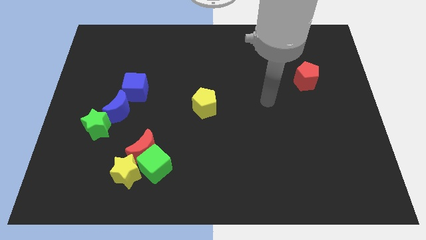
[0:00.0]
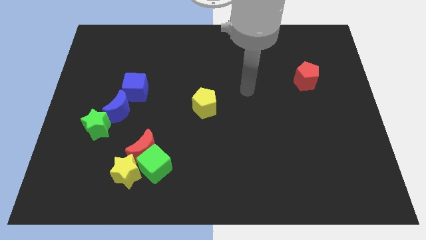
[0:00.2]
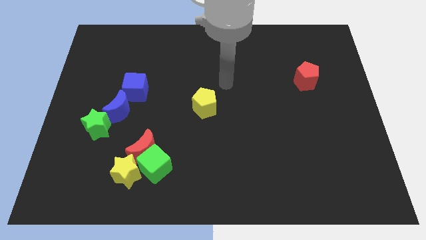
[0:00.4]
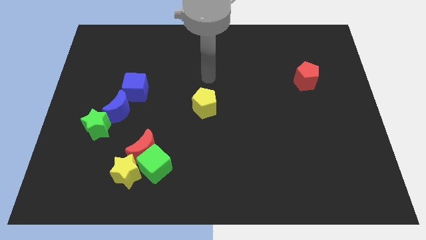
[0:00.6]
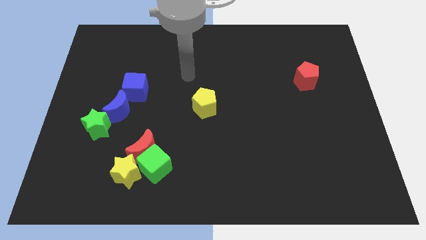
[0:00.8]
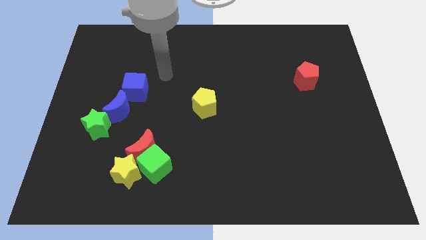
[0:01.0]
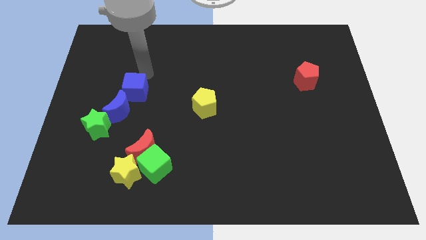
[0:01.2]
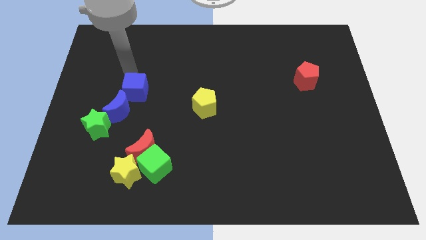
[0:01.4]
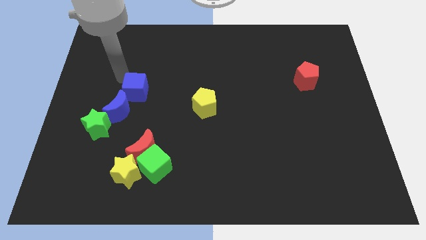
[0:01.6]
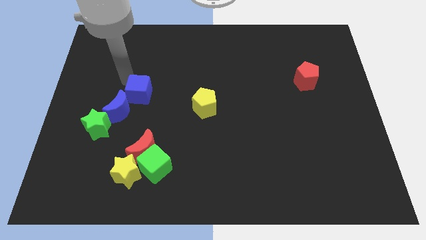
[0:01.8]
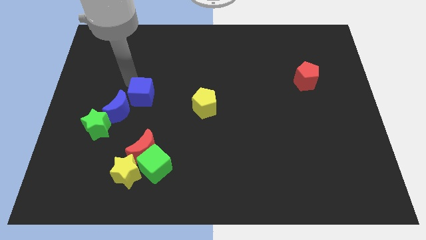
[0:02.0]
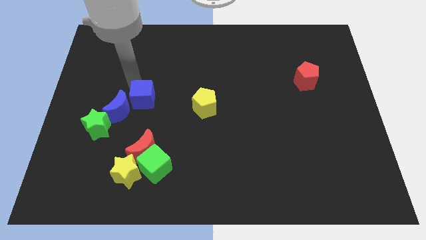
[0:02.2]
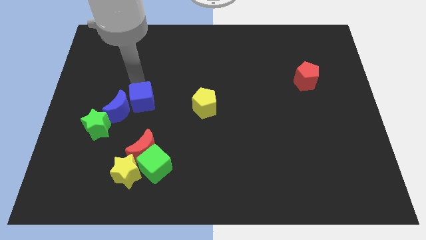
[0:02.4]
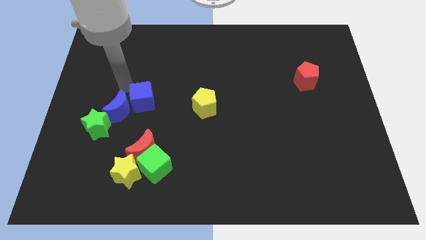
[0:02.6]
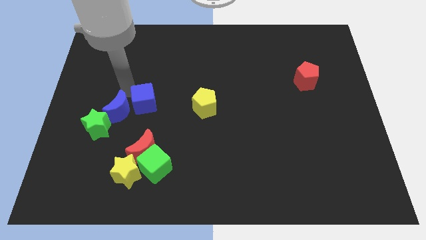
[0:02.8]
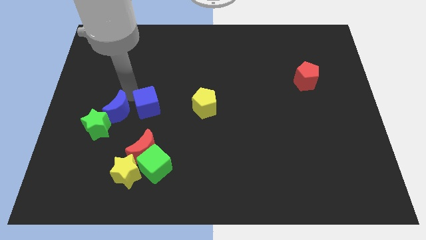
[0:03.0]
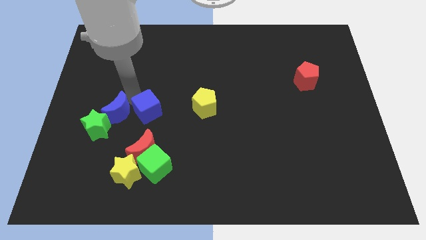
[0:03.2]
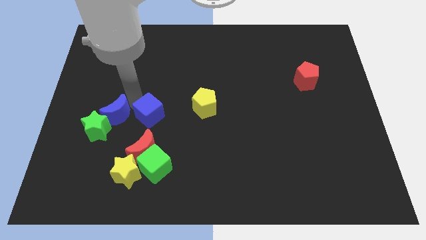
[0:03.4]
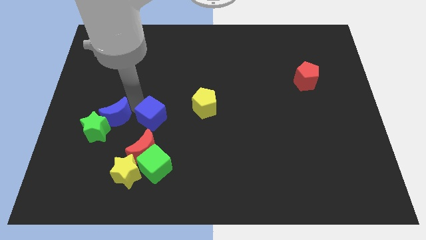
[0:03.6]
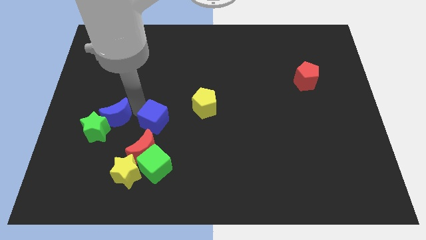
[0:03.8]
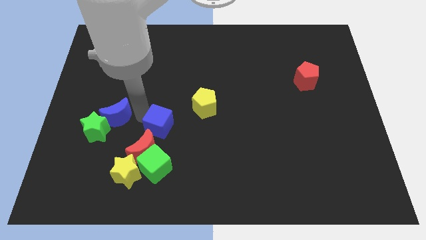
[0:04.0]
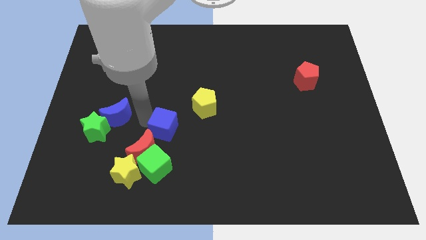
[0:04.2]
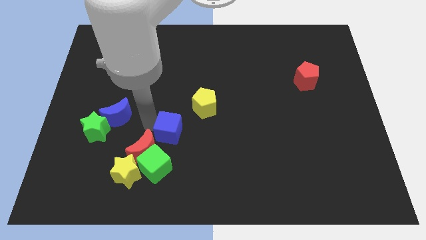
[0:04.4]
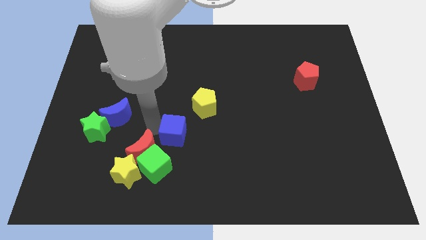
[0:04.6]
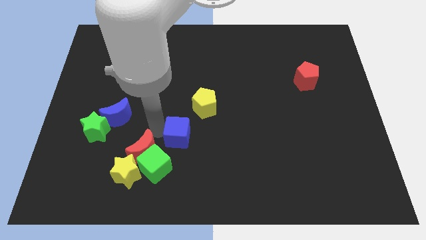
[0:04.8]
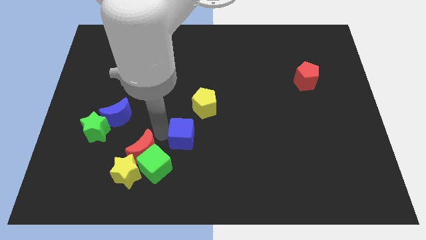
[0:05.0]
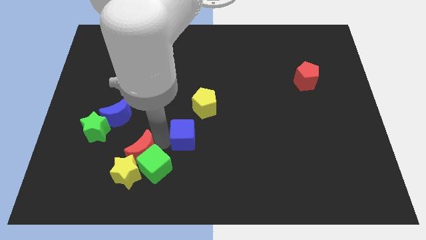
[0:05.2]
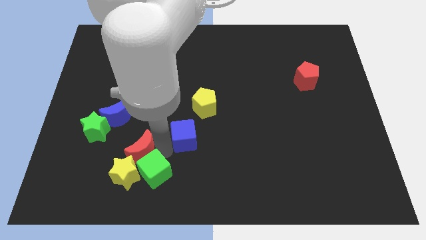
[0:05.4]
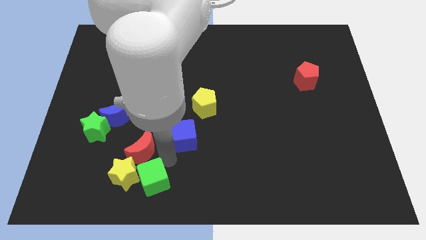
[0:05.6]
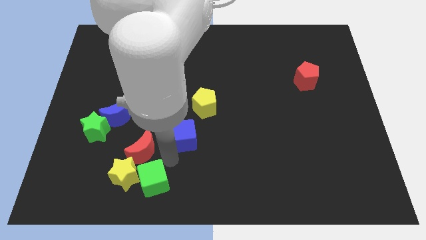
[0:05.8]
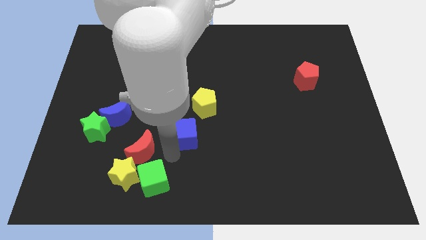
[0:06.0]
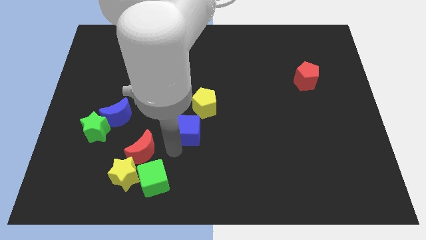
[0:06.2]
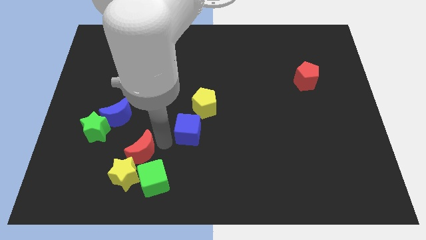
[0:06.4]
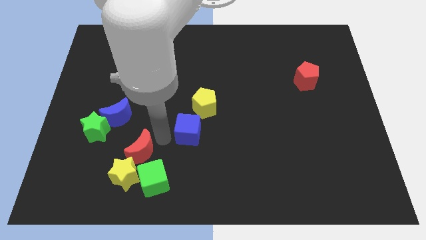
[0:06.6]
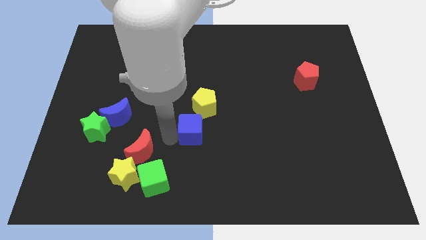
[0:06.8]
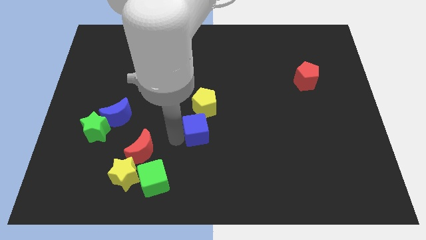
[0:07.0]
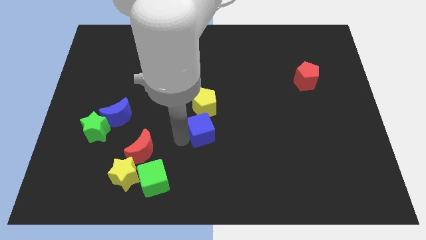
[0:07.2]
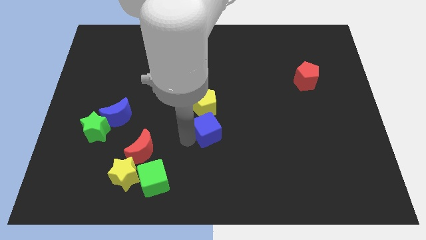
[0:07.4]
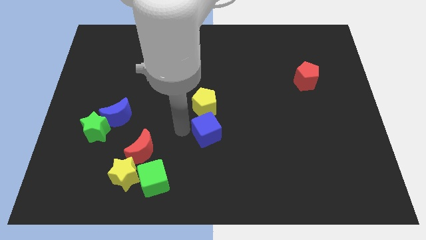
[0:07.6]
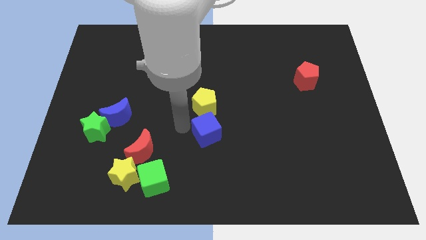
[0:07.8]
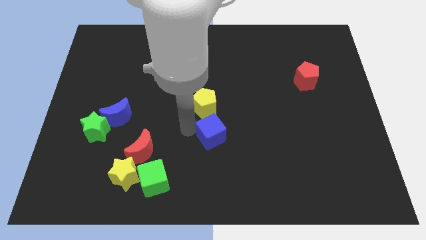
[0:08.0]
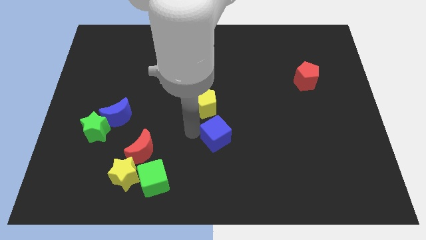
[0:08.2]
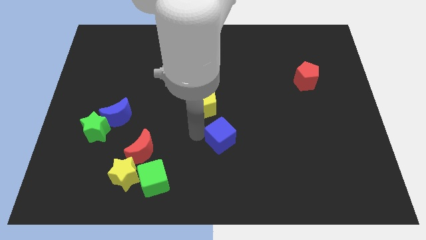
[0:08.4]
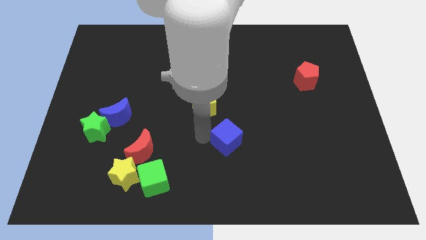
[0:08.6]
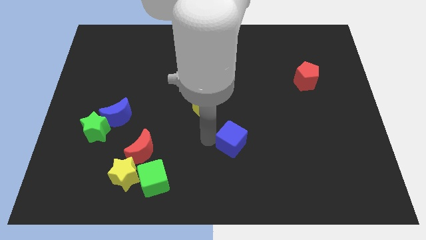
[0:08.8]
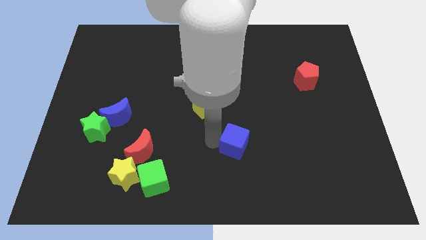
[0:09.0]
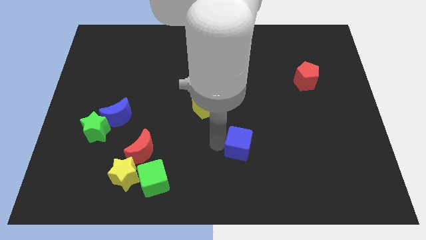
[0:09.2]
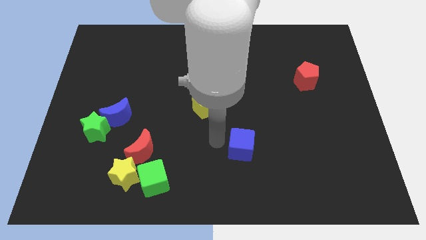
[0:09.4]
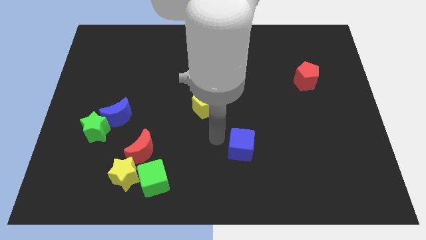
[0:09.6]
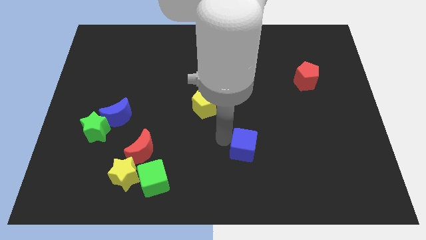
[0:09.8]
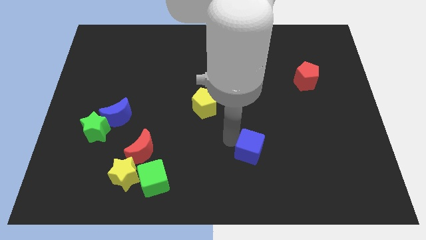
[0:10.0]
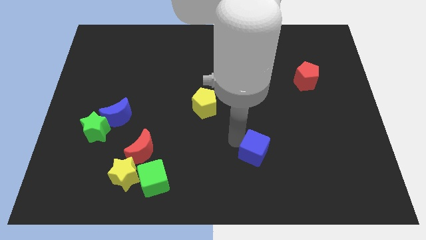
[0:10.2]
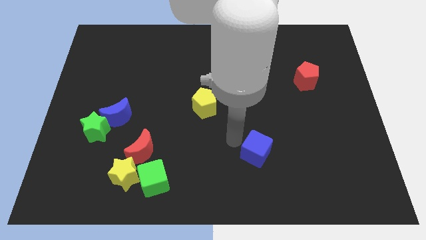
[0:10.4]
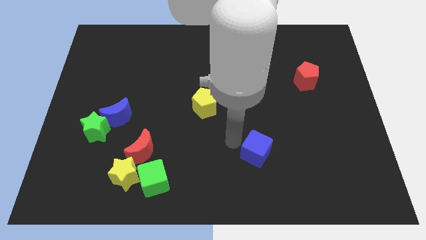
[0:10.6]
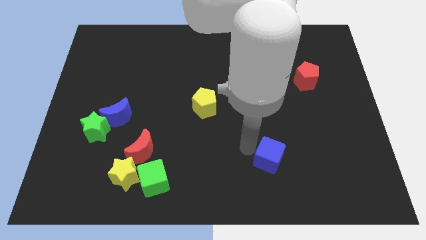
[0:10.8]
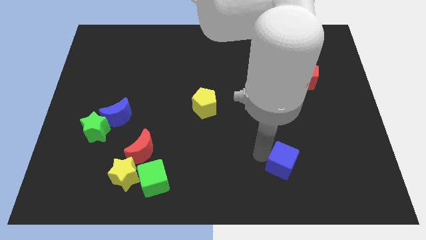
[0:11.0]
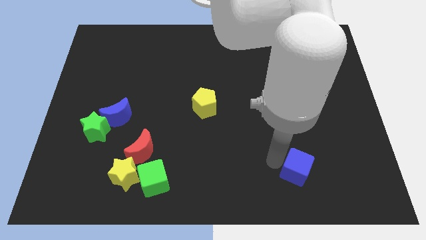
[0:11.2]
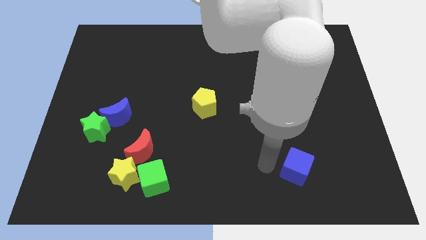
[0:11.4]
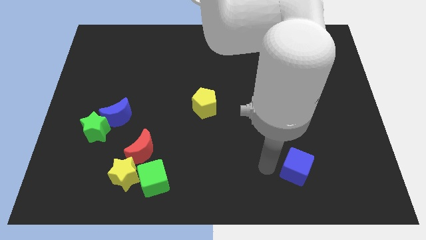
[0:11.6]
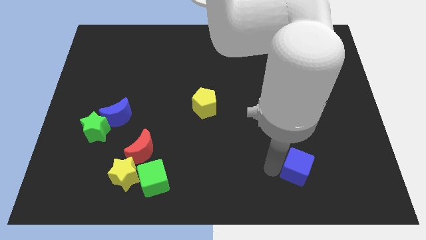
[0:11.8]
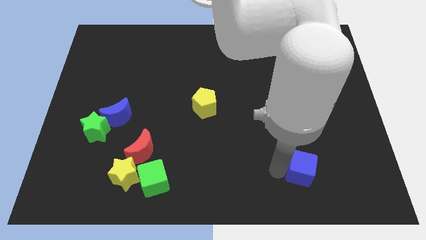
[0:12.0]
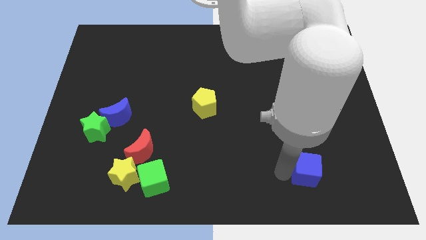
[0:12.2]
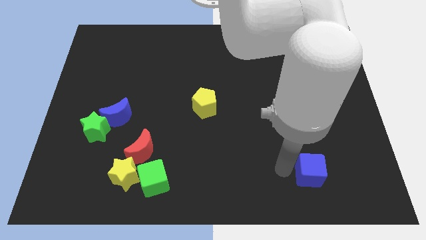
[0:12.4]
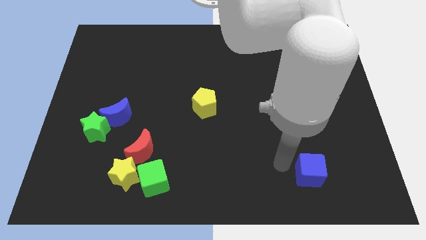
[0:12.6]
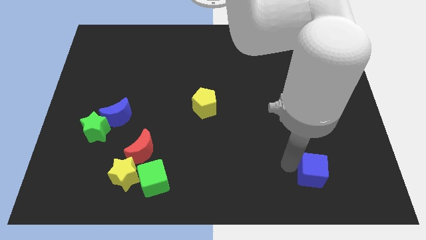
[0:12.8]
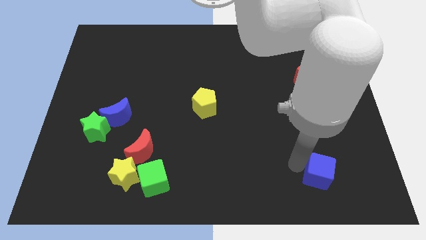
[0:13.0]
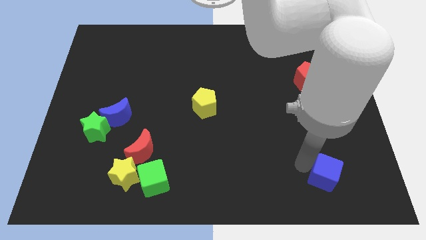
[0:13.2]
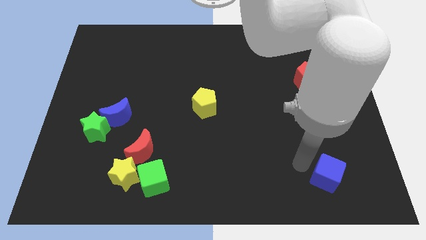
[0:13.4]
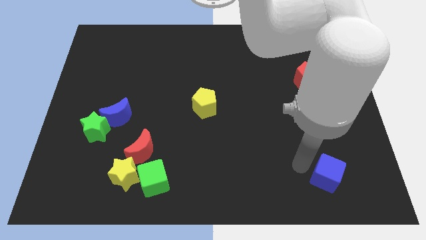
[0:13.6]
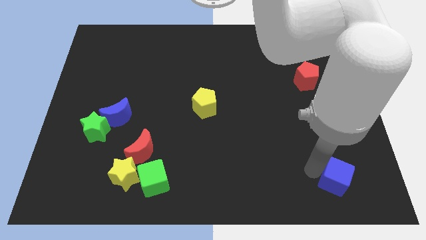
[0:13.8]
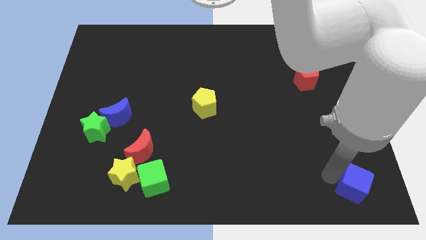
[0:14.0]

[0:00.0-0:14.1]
move the blue cube to the bottom right of the board

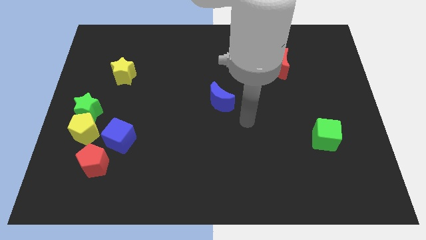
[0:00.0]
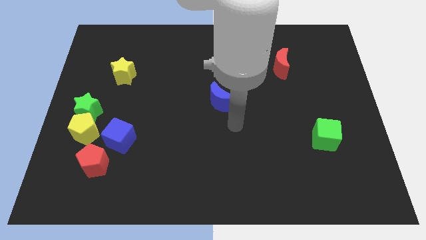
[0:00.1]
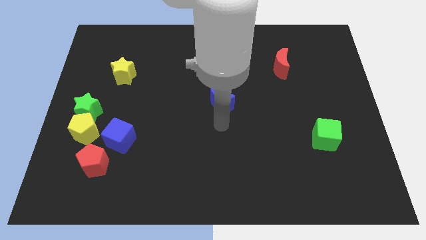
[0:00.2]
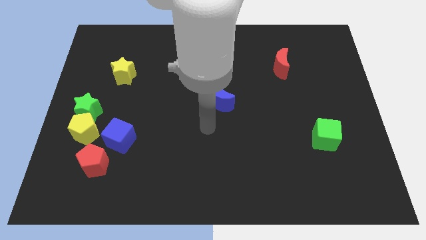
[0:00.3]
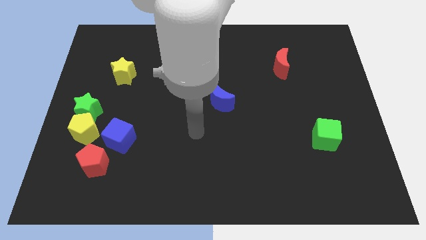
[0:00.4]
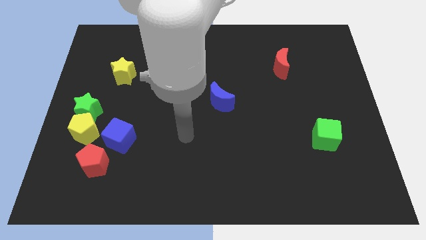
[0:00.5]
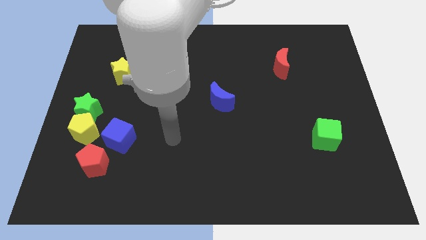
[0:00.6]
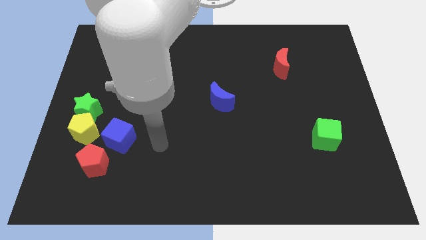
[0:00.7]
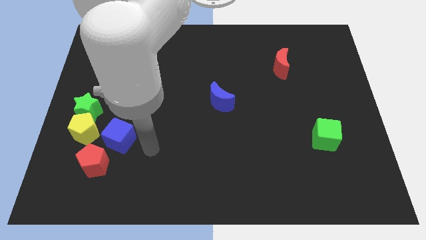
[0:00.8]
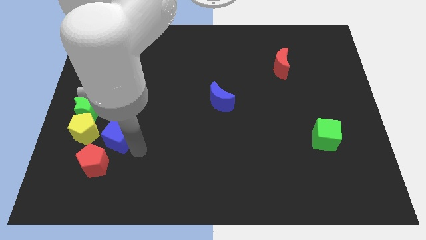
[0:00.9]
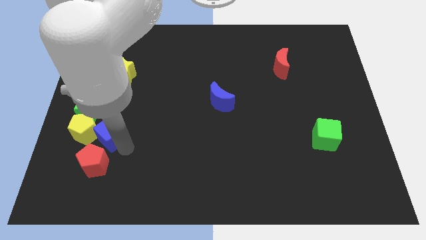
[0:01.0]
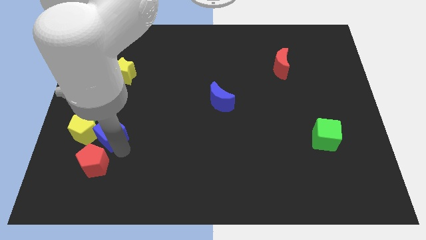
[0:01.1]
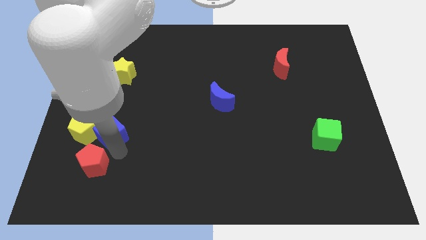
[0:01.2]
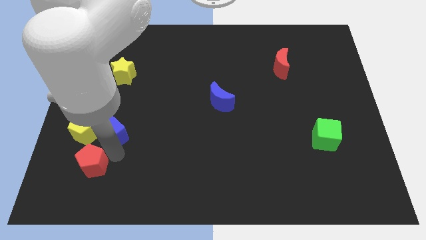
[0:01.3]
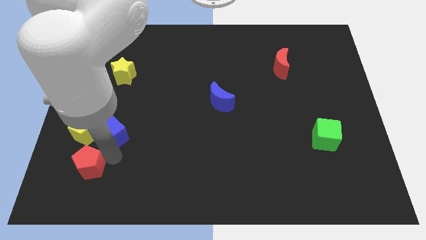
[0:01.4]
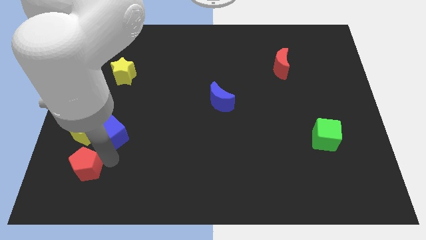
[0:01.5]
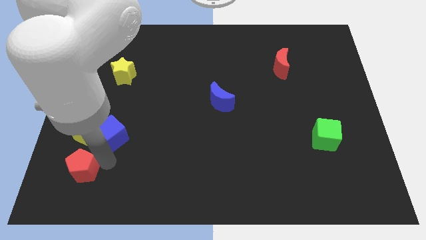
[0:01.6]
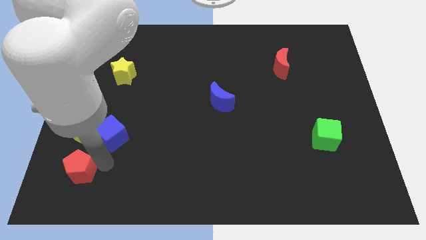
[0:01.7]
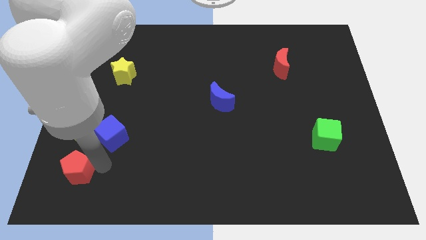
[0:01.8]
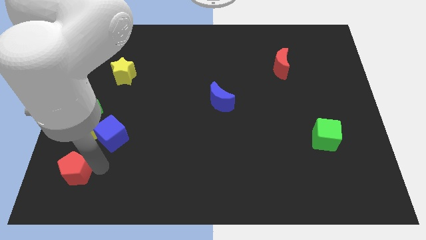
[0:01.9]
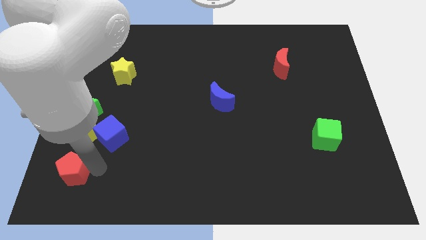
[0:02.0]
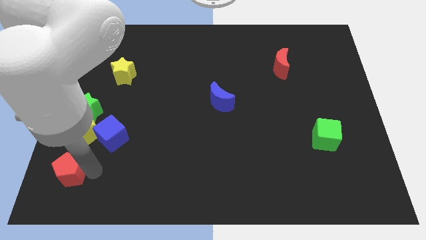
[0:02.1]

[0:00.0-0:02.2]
move the red pentagon to the bottom left of the board
